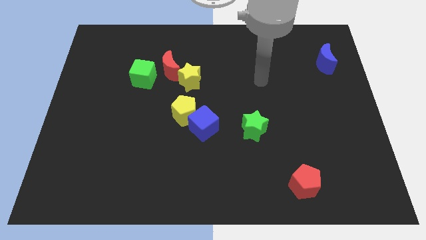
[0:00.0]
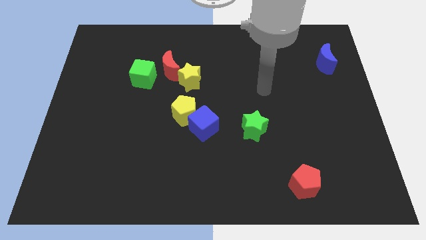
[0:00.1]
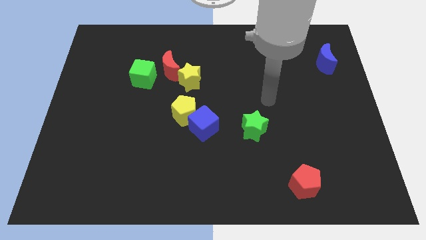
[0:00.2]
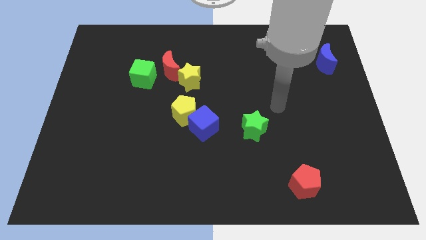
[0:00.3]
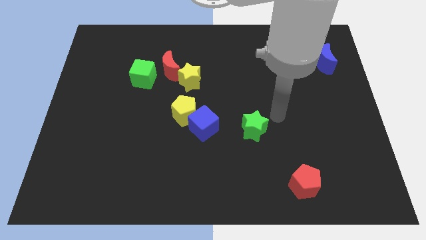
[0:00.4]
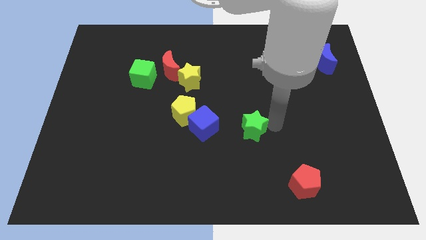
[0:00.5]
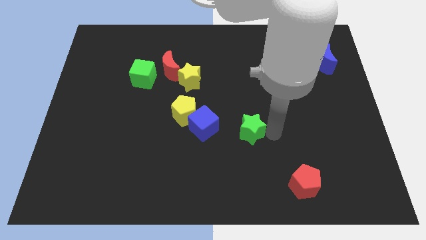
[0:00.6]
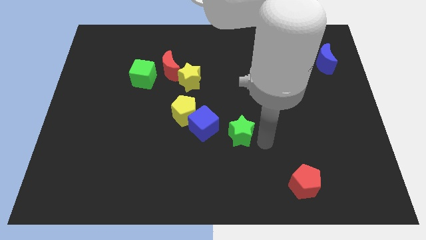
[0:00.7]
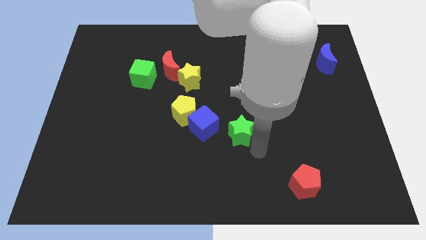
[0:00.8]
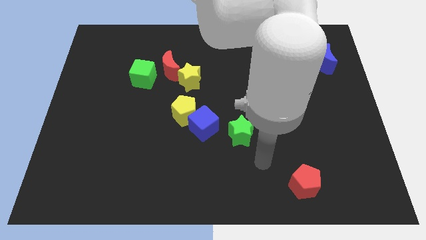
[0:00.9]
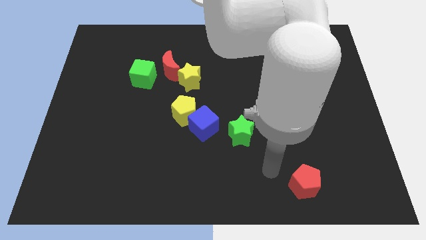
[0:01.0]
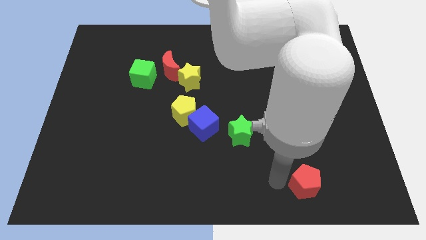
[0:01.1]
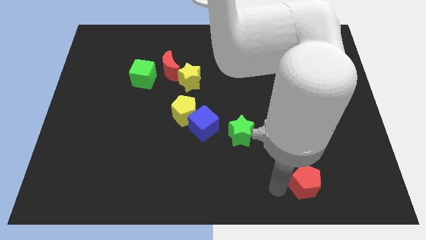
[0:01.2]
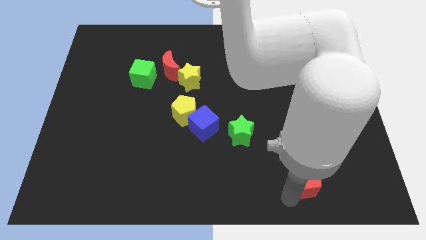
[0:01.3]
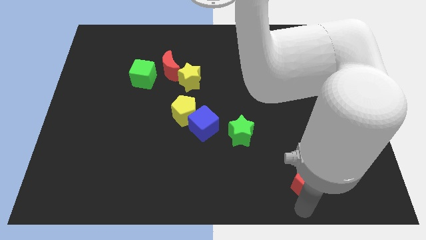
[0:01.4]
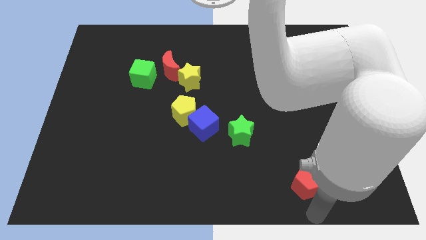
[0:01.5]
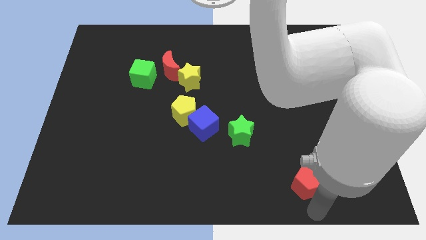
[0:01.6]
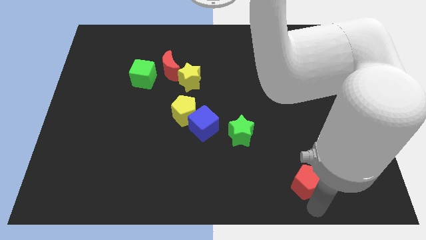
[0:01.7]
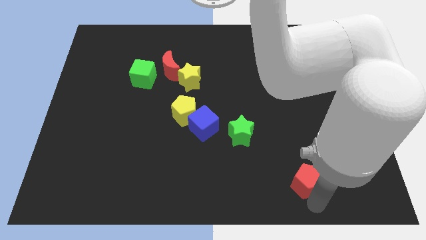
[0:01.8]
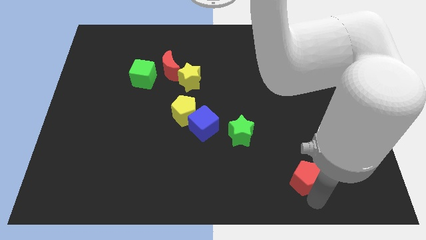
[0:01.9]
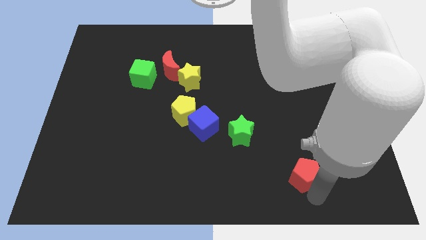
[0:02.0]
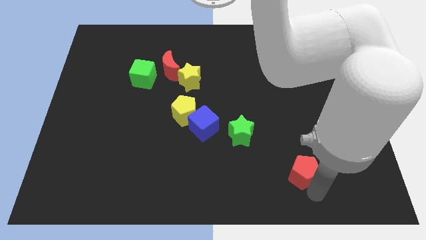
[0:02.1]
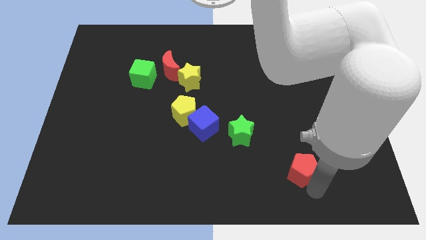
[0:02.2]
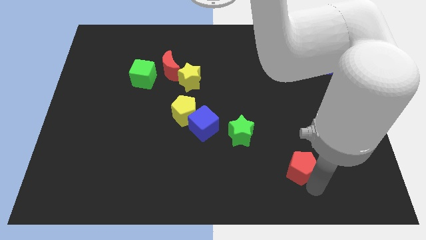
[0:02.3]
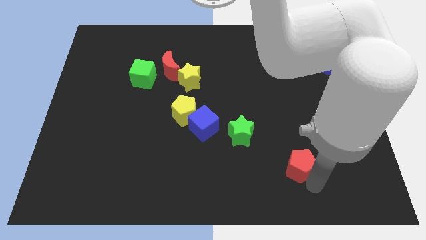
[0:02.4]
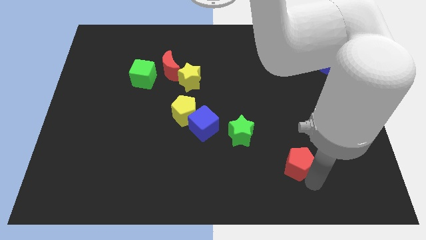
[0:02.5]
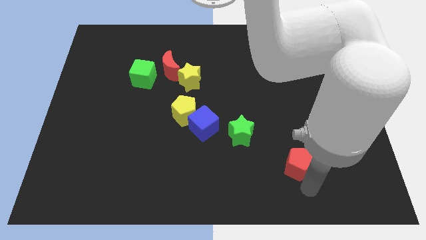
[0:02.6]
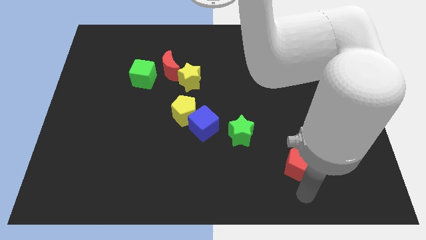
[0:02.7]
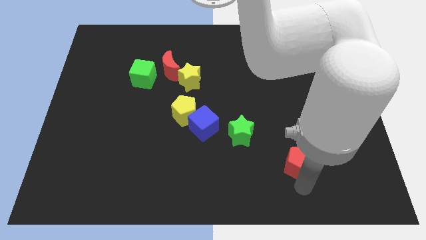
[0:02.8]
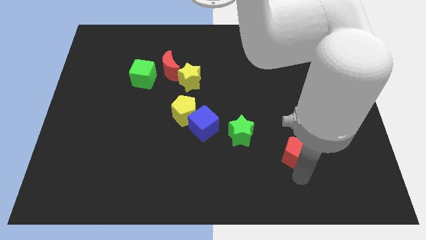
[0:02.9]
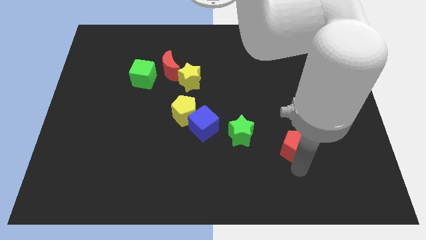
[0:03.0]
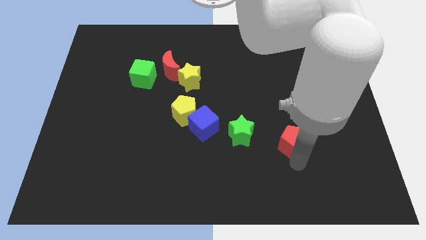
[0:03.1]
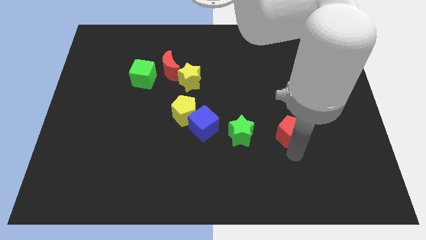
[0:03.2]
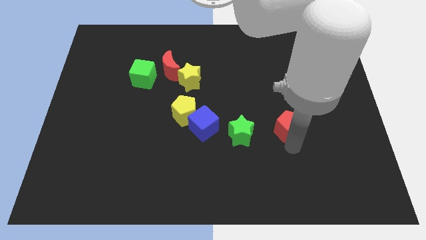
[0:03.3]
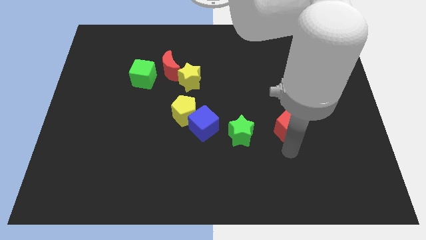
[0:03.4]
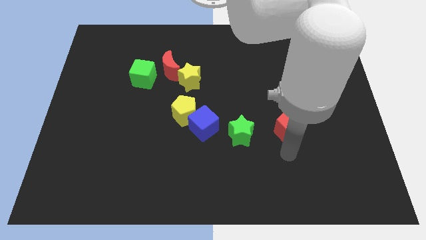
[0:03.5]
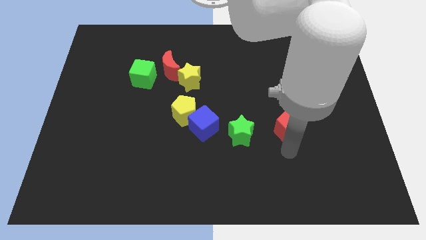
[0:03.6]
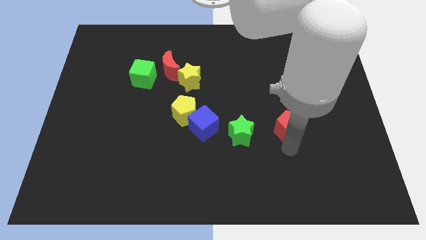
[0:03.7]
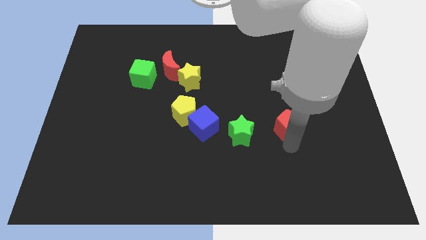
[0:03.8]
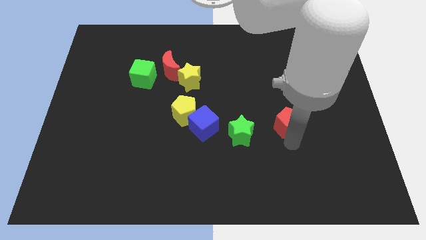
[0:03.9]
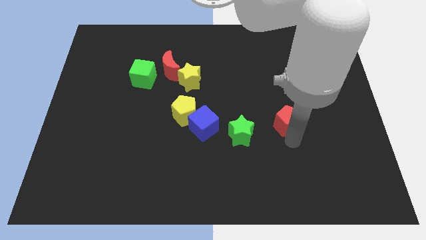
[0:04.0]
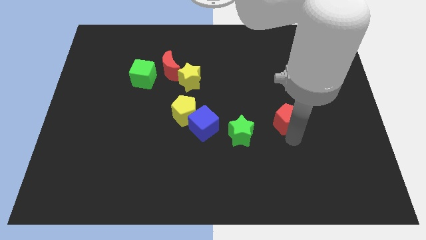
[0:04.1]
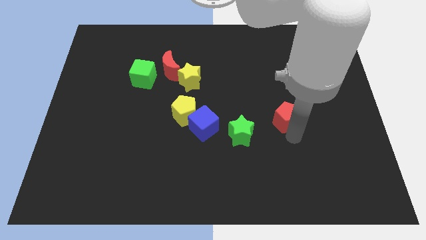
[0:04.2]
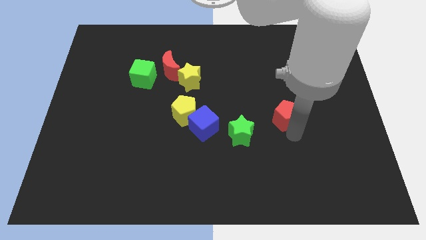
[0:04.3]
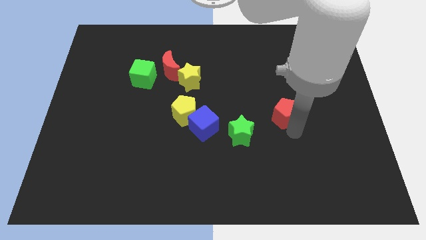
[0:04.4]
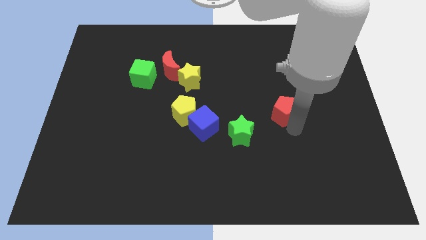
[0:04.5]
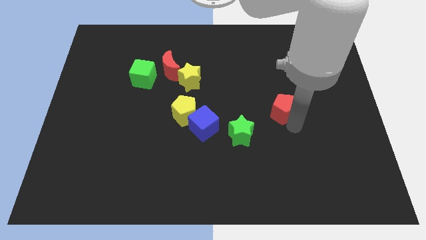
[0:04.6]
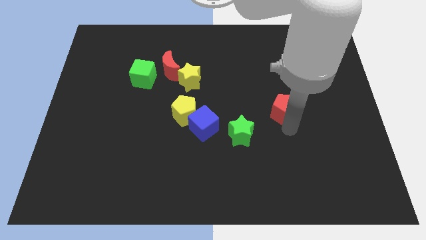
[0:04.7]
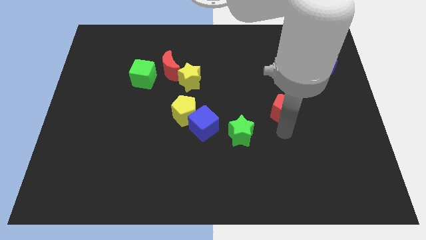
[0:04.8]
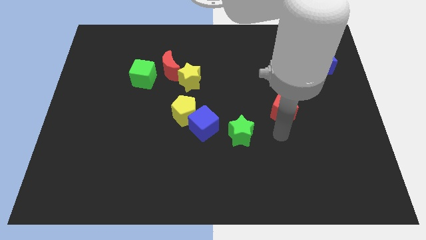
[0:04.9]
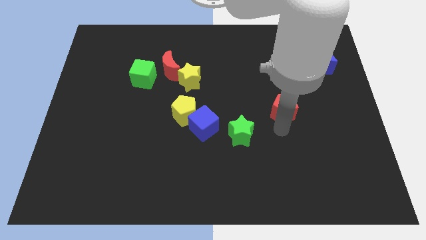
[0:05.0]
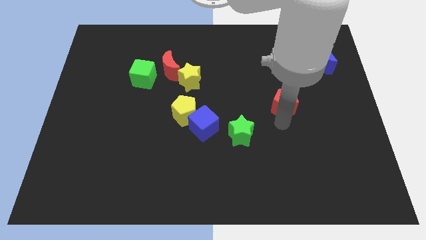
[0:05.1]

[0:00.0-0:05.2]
slide the red pentagon up

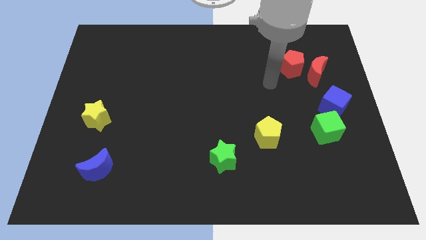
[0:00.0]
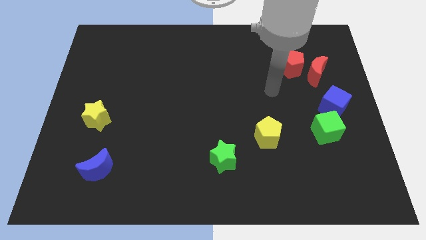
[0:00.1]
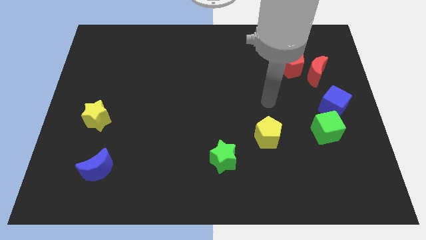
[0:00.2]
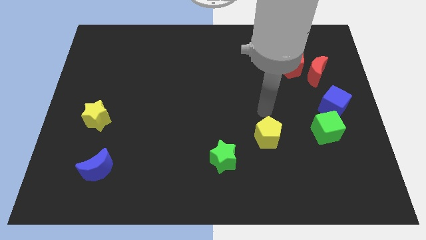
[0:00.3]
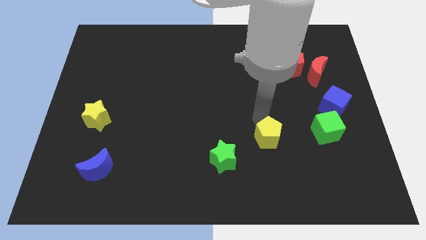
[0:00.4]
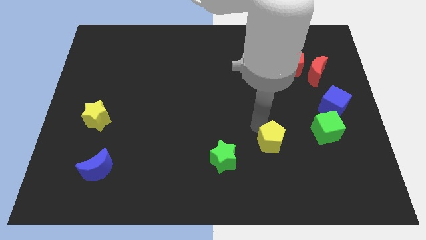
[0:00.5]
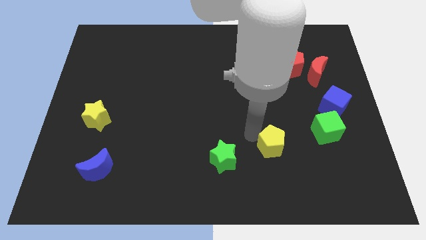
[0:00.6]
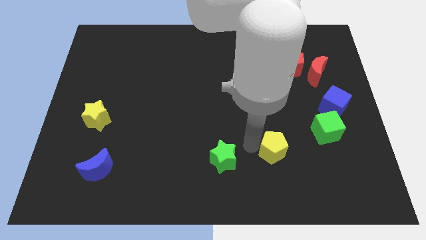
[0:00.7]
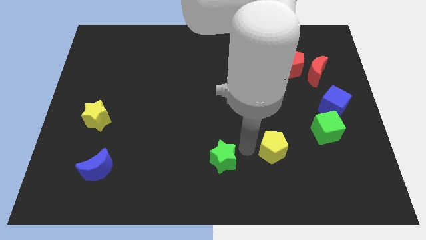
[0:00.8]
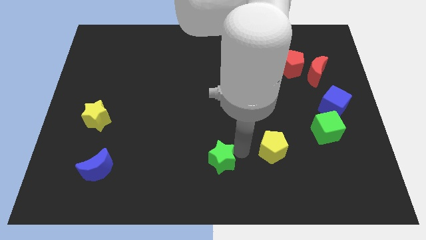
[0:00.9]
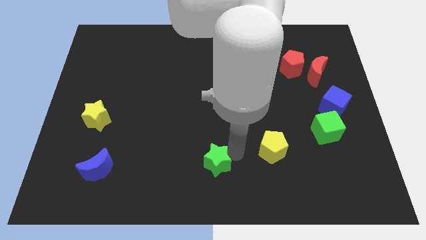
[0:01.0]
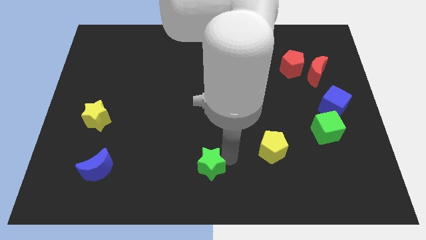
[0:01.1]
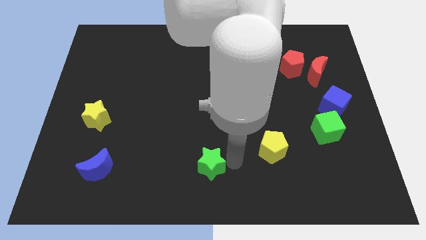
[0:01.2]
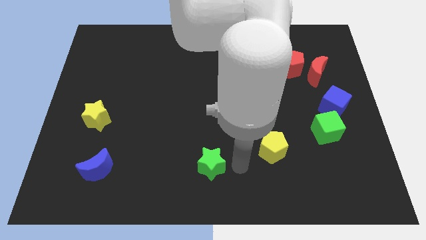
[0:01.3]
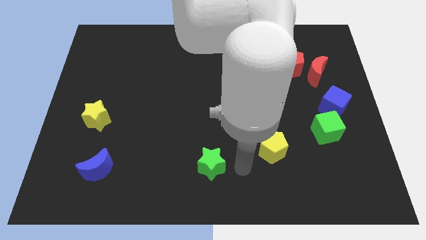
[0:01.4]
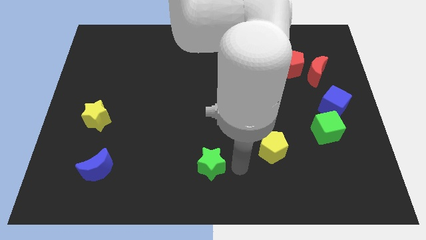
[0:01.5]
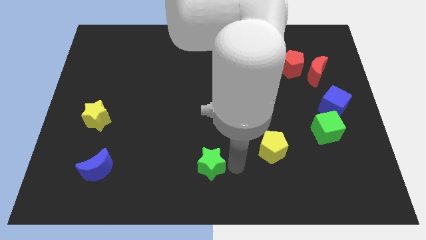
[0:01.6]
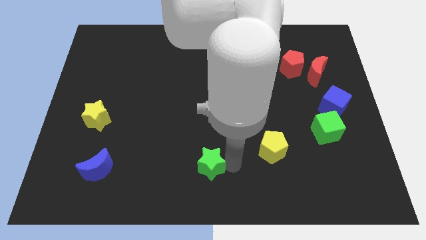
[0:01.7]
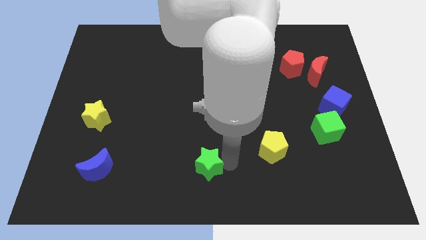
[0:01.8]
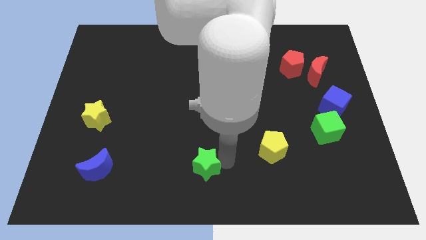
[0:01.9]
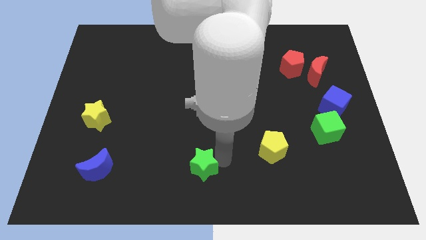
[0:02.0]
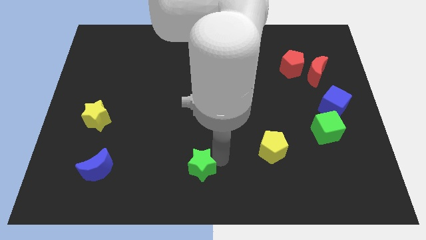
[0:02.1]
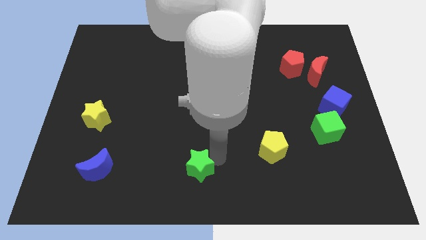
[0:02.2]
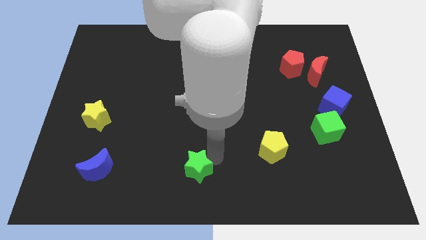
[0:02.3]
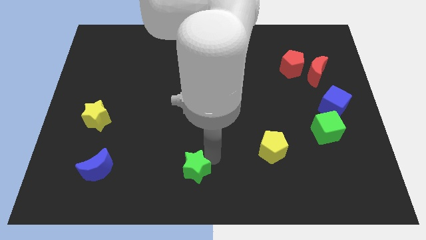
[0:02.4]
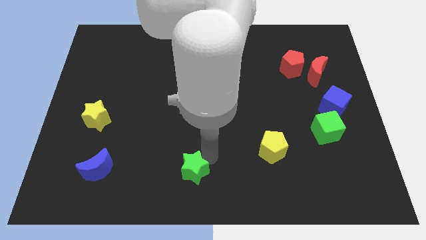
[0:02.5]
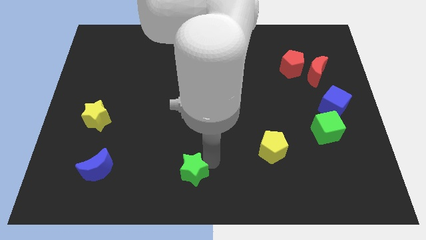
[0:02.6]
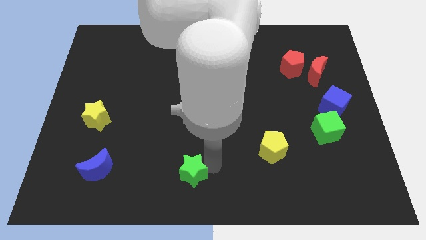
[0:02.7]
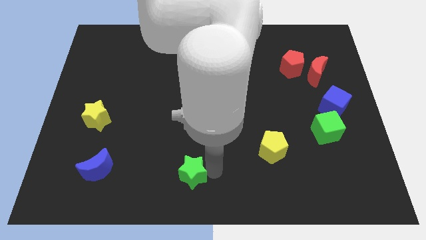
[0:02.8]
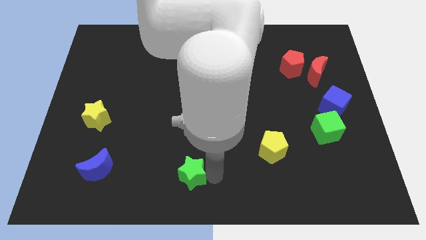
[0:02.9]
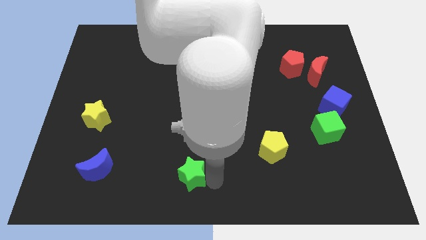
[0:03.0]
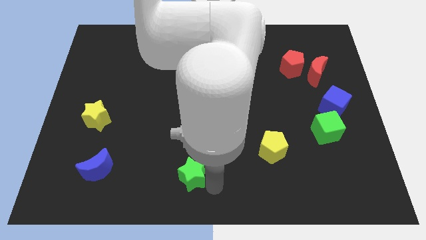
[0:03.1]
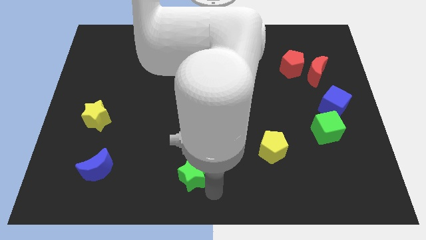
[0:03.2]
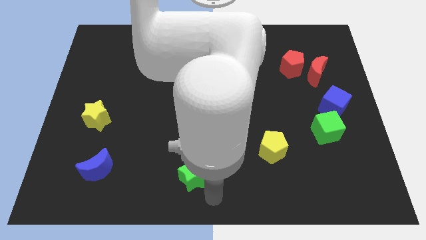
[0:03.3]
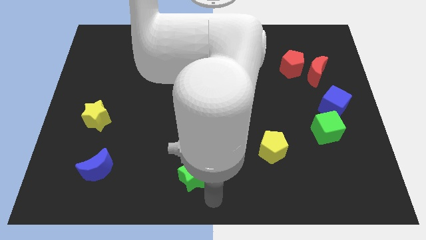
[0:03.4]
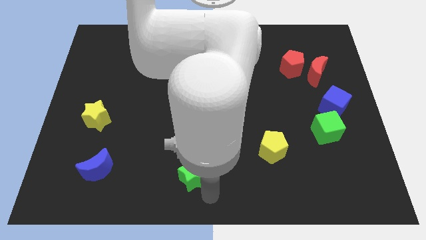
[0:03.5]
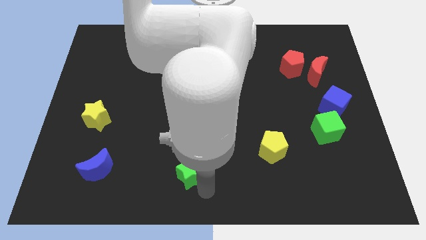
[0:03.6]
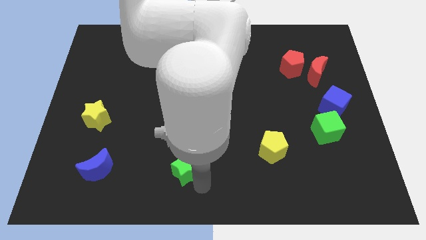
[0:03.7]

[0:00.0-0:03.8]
push the green star left a bit
